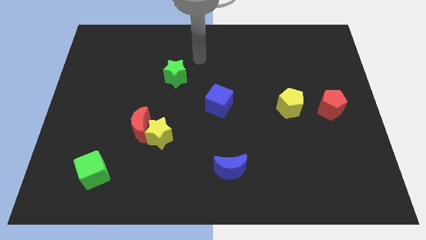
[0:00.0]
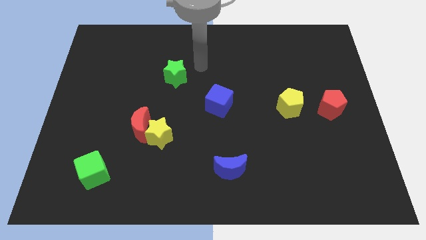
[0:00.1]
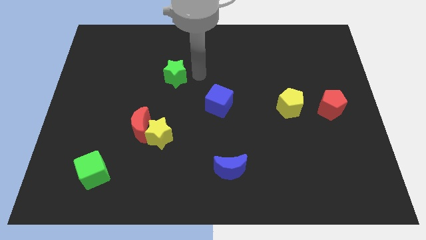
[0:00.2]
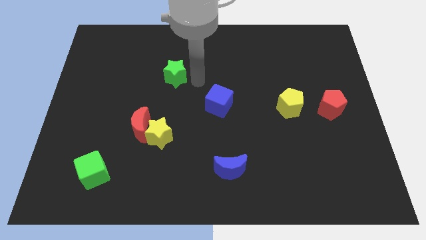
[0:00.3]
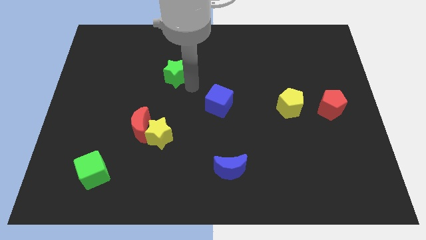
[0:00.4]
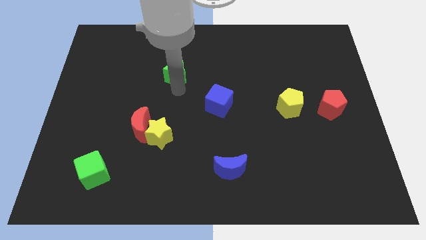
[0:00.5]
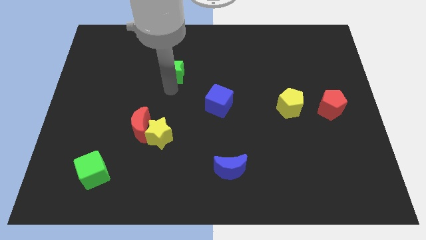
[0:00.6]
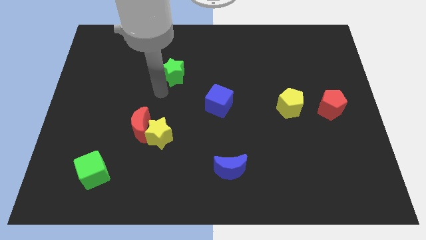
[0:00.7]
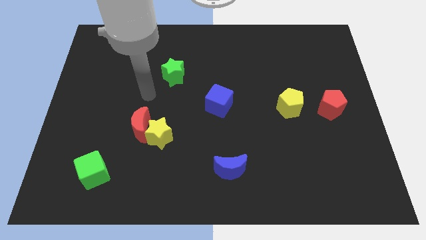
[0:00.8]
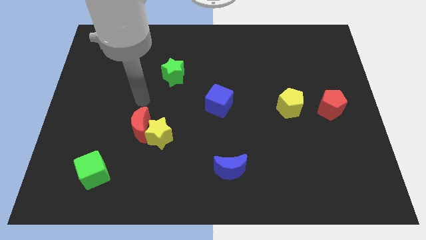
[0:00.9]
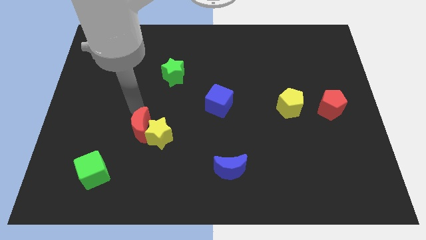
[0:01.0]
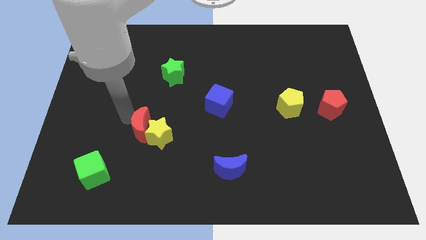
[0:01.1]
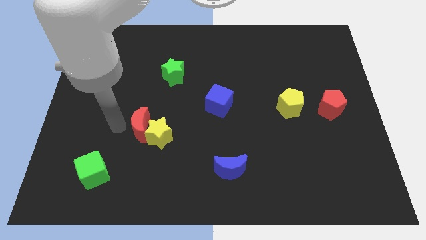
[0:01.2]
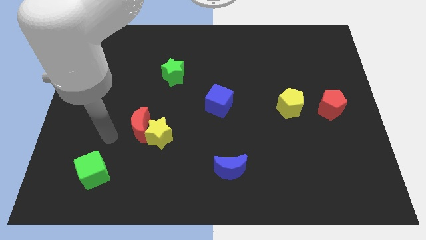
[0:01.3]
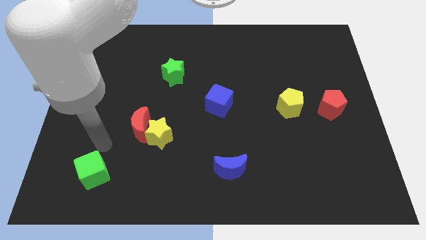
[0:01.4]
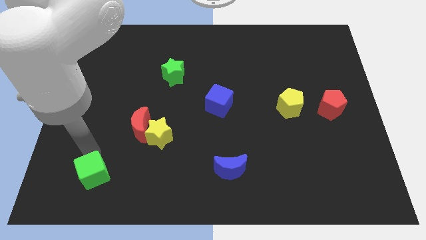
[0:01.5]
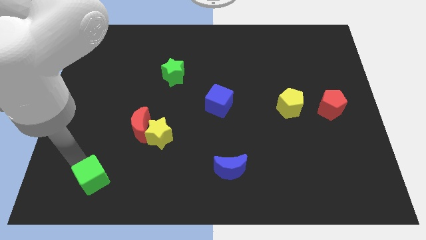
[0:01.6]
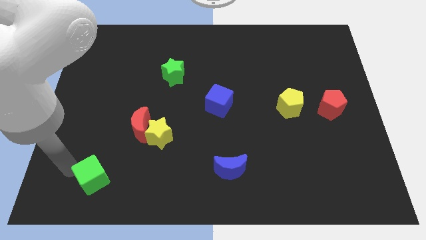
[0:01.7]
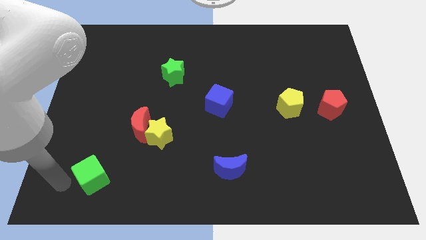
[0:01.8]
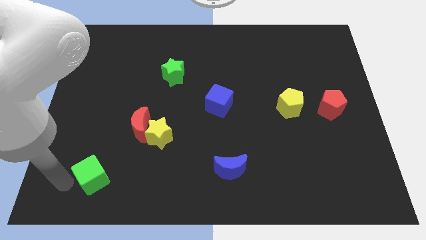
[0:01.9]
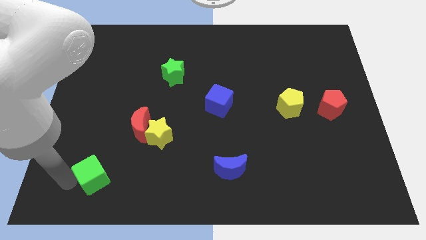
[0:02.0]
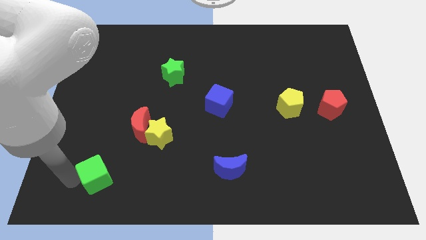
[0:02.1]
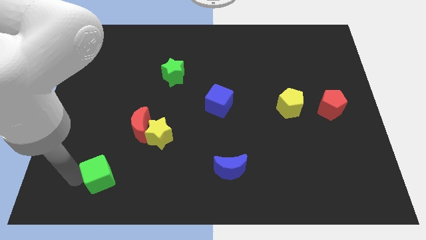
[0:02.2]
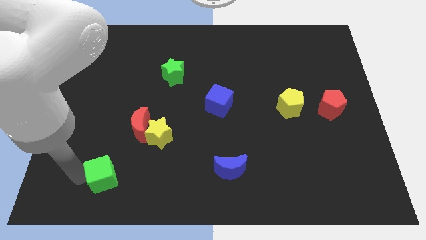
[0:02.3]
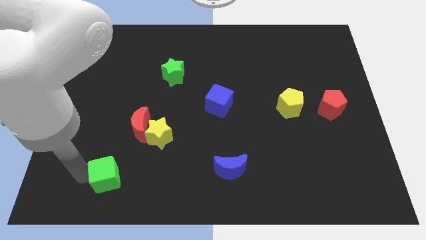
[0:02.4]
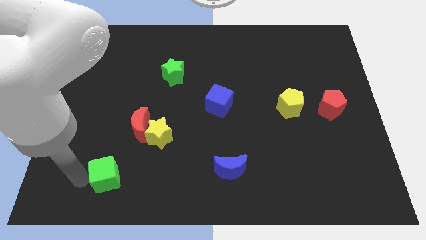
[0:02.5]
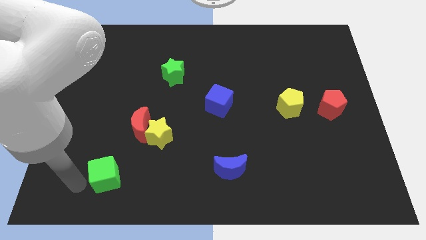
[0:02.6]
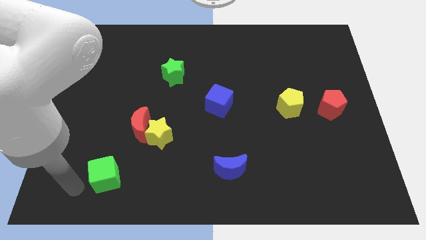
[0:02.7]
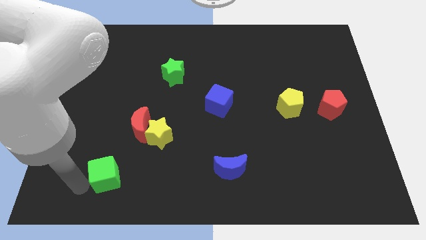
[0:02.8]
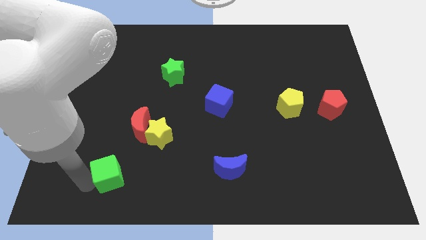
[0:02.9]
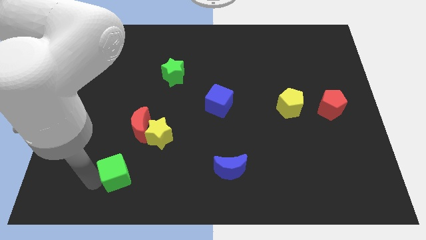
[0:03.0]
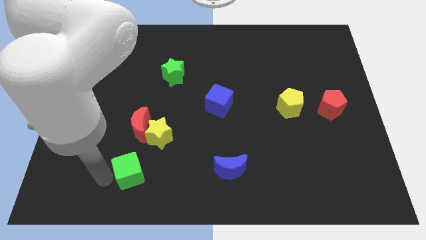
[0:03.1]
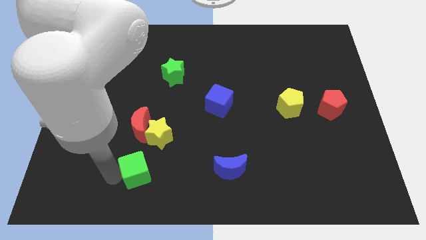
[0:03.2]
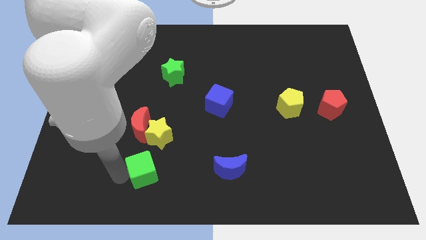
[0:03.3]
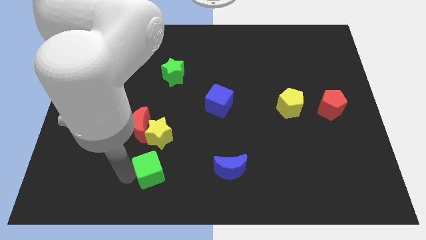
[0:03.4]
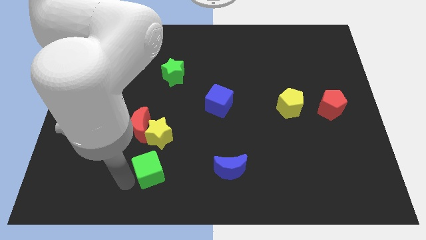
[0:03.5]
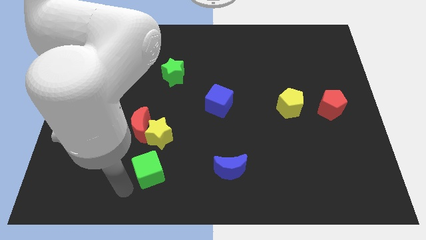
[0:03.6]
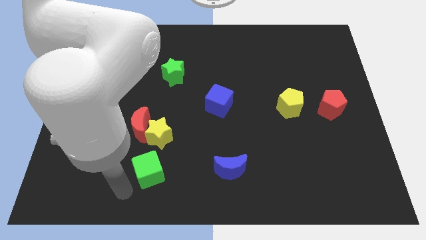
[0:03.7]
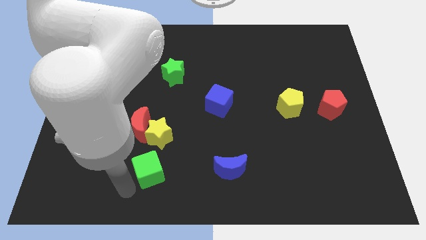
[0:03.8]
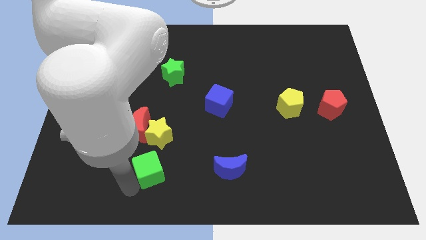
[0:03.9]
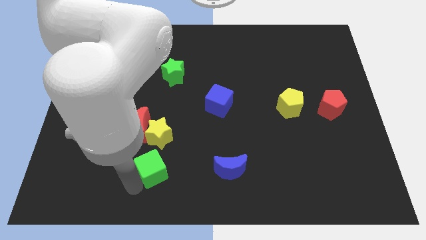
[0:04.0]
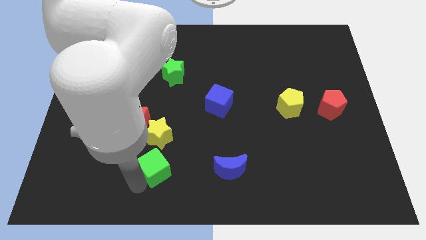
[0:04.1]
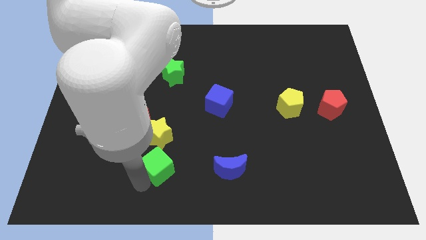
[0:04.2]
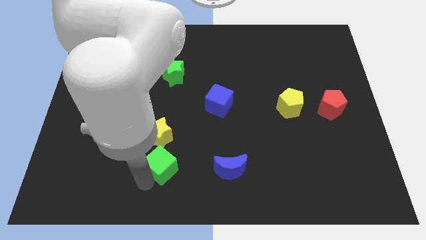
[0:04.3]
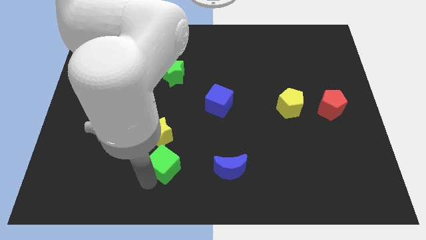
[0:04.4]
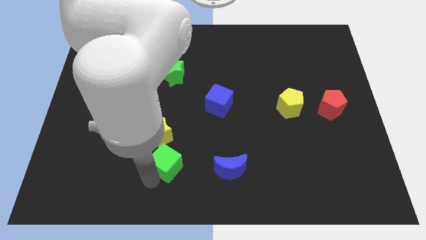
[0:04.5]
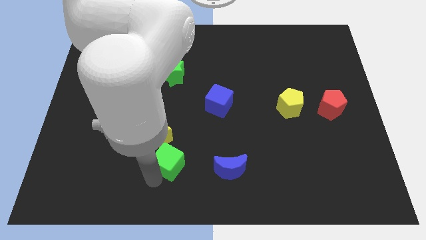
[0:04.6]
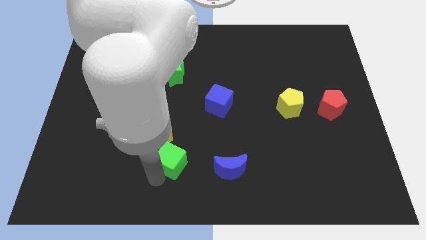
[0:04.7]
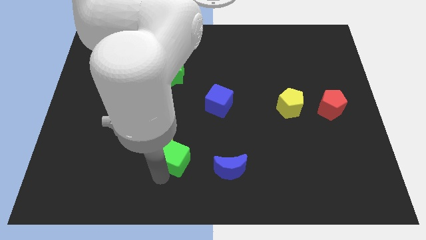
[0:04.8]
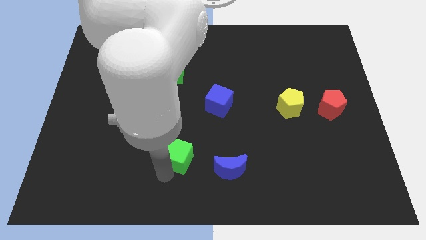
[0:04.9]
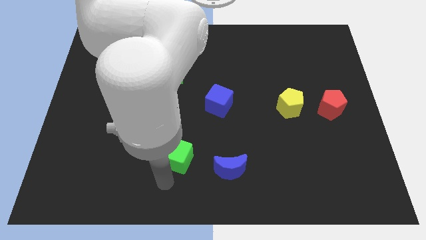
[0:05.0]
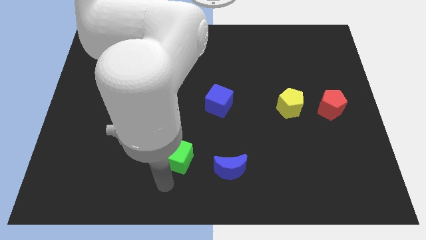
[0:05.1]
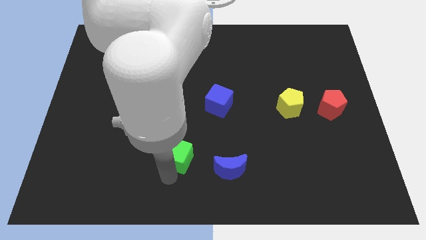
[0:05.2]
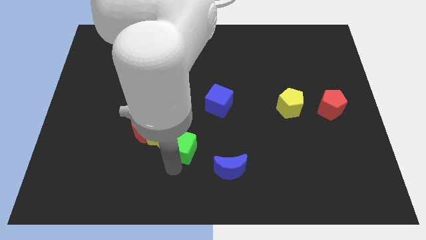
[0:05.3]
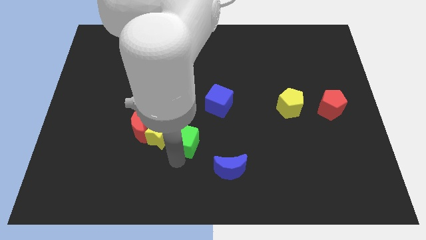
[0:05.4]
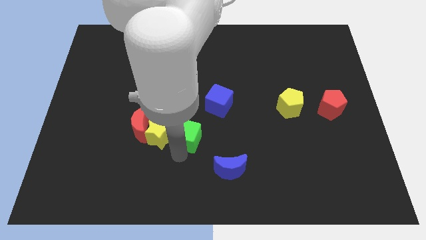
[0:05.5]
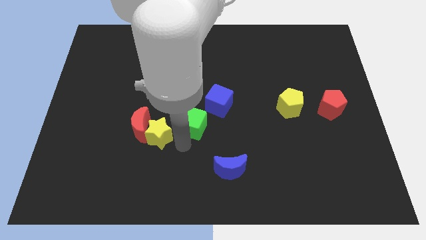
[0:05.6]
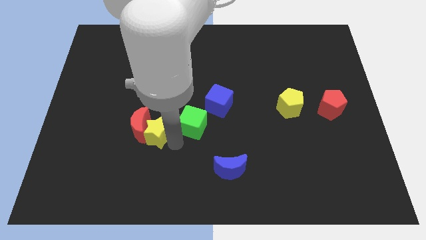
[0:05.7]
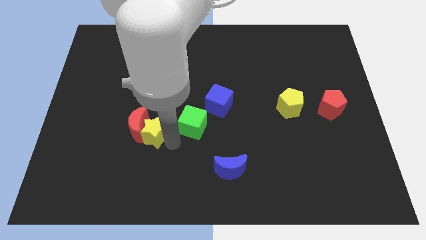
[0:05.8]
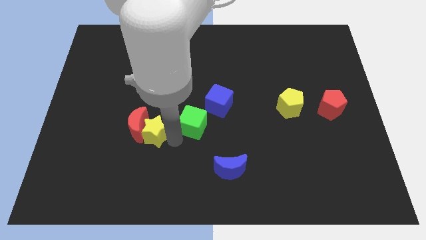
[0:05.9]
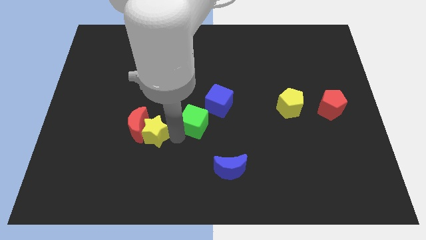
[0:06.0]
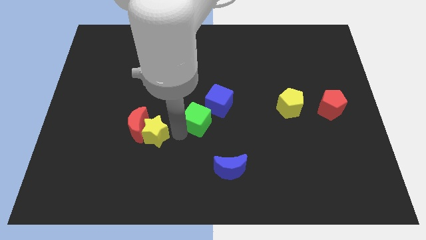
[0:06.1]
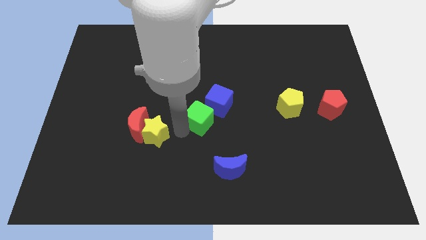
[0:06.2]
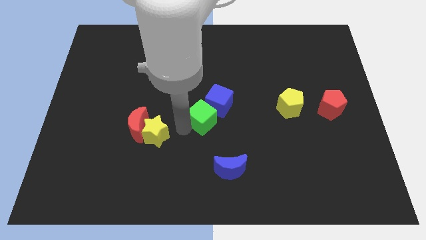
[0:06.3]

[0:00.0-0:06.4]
put the green cube close to the blue cube

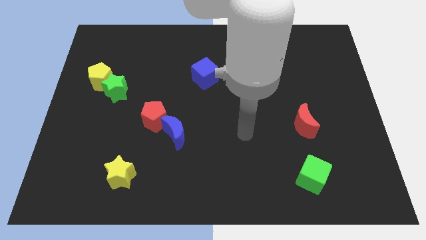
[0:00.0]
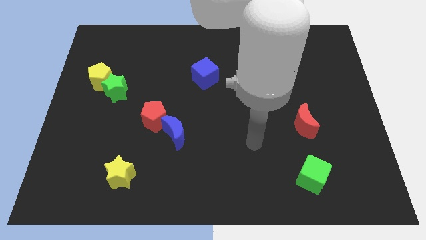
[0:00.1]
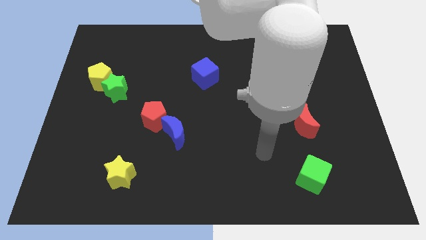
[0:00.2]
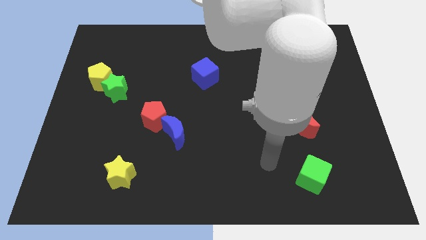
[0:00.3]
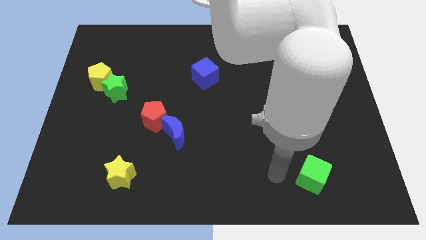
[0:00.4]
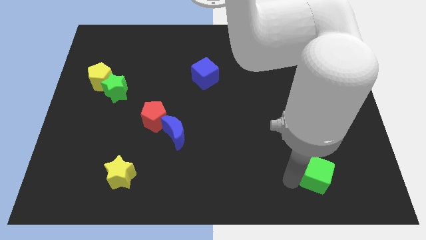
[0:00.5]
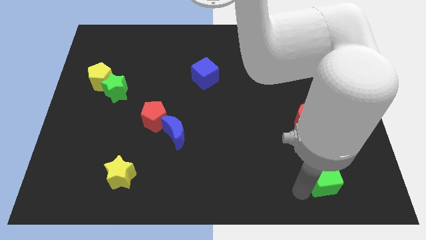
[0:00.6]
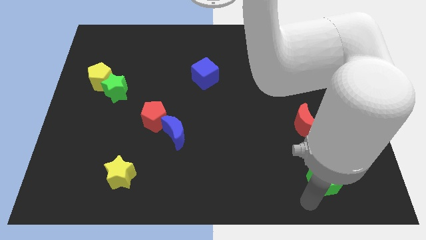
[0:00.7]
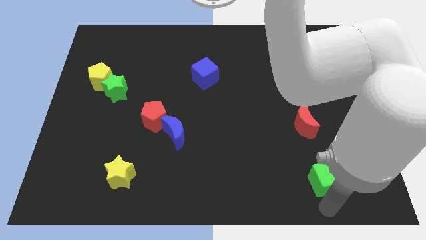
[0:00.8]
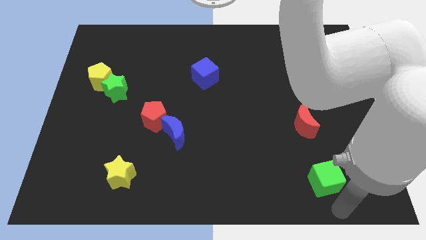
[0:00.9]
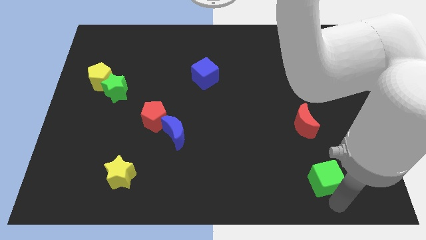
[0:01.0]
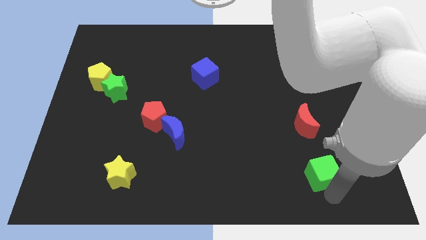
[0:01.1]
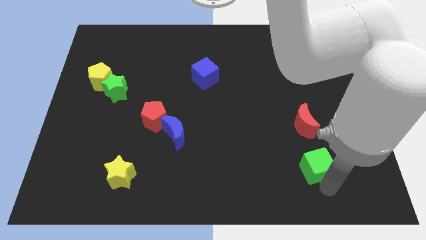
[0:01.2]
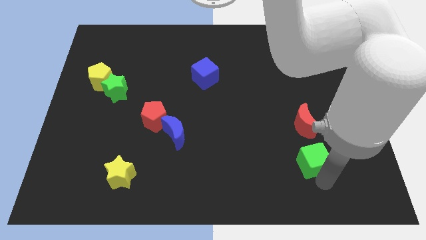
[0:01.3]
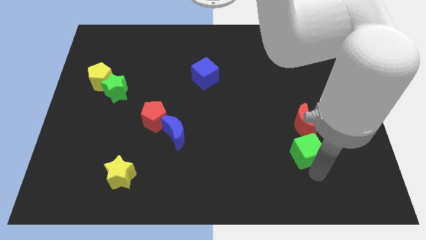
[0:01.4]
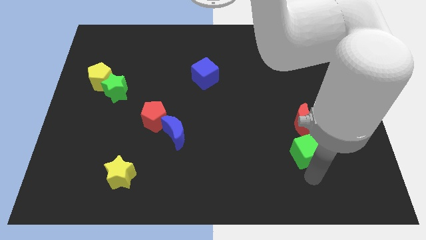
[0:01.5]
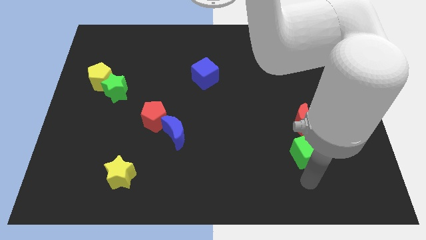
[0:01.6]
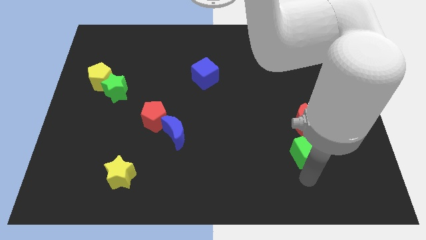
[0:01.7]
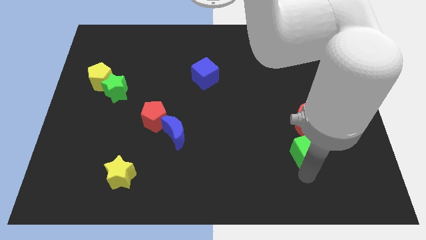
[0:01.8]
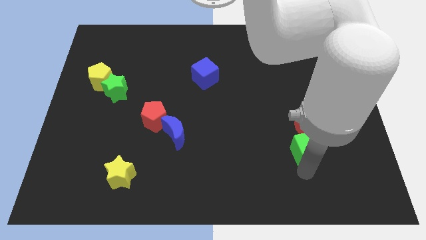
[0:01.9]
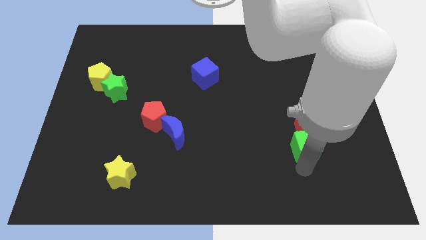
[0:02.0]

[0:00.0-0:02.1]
put the green cube next to the red moon
